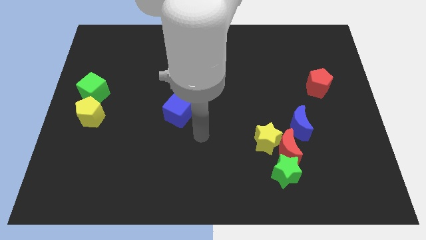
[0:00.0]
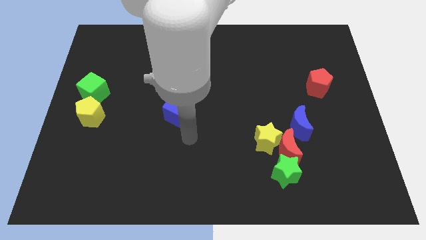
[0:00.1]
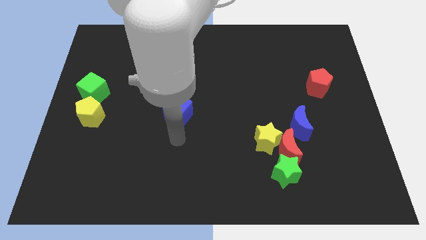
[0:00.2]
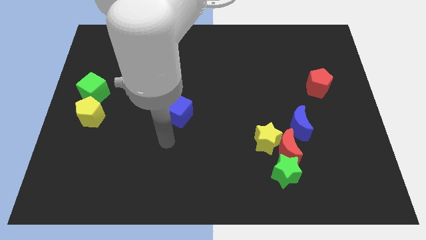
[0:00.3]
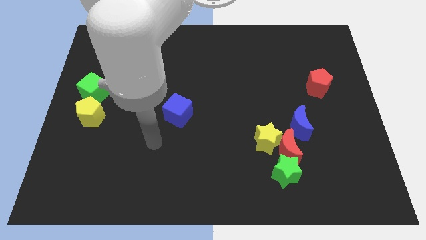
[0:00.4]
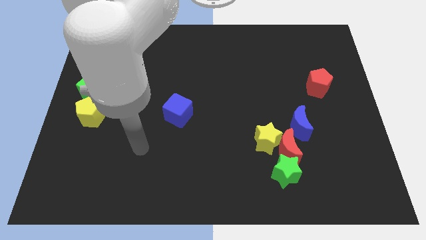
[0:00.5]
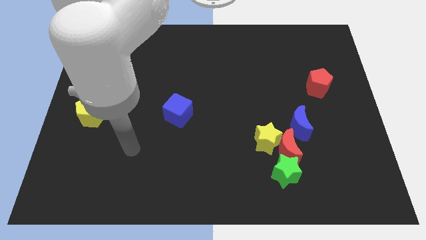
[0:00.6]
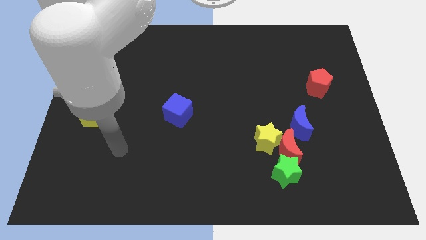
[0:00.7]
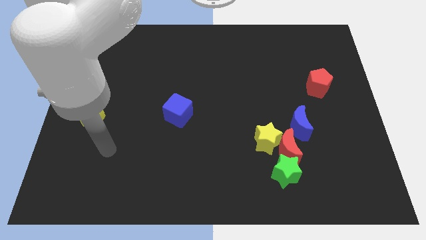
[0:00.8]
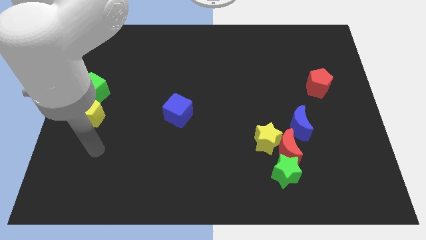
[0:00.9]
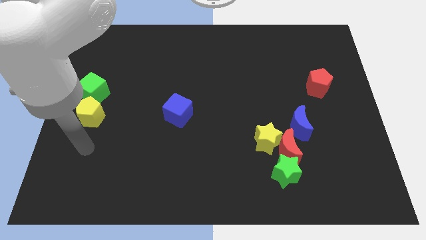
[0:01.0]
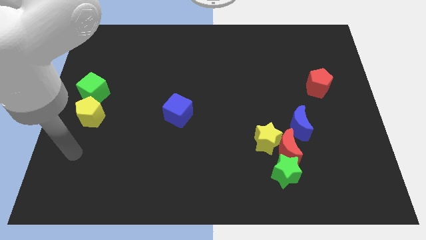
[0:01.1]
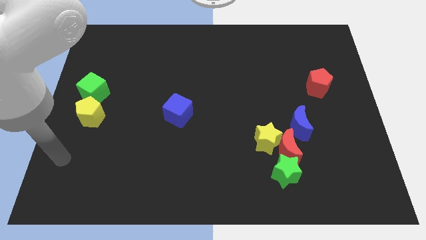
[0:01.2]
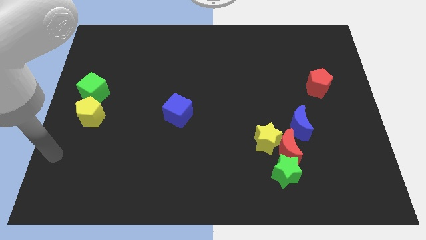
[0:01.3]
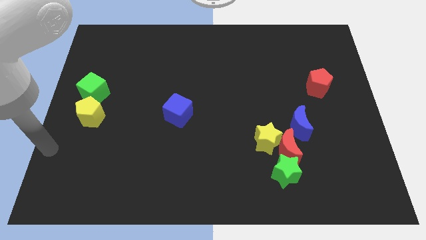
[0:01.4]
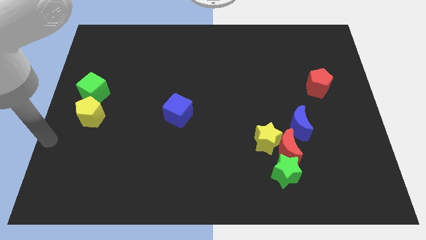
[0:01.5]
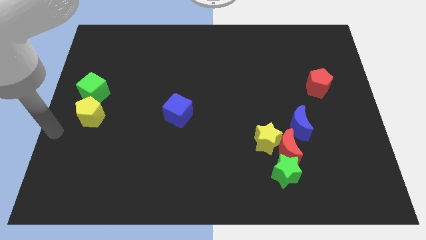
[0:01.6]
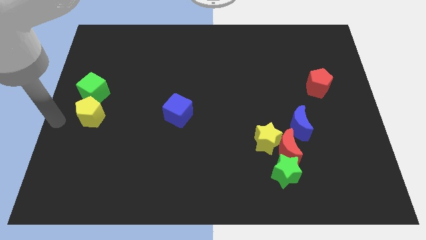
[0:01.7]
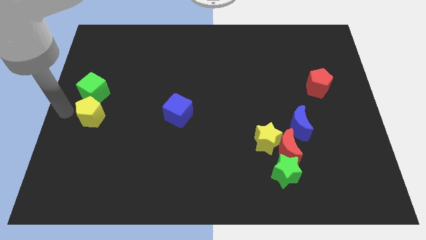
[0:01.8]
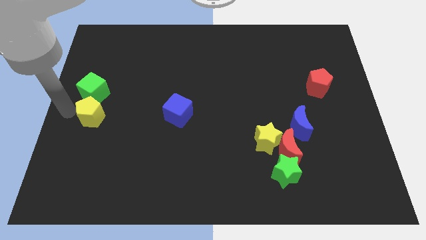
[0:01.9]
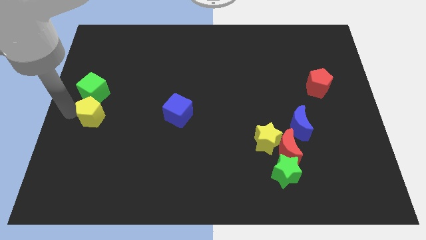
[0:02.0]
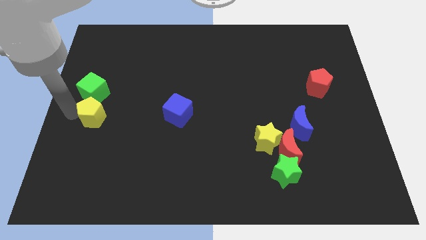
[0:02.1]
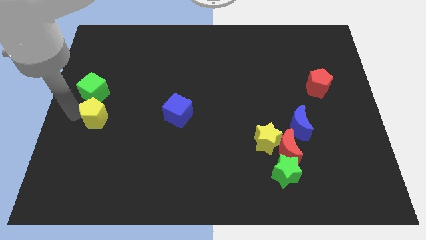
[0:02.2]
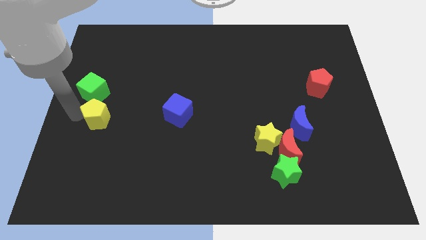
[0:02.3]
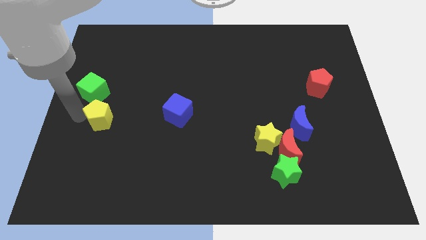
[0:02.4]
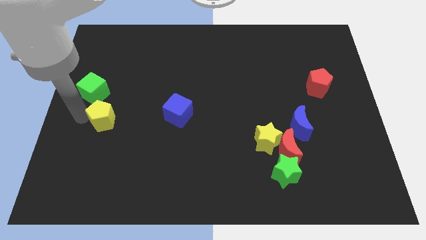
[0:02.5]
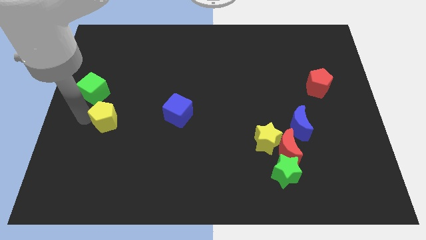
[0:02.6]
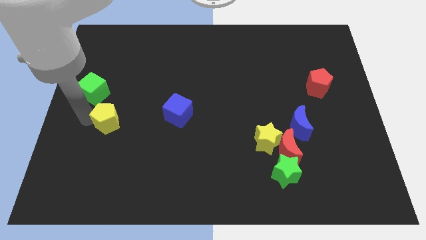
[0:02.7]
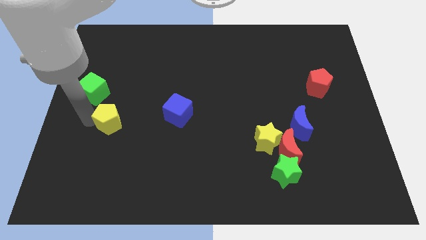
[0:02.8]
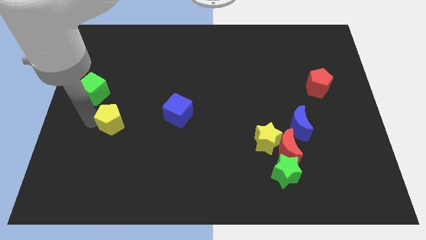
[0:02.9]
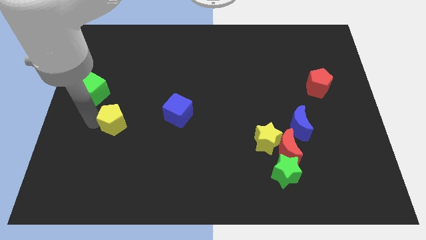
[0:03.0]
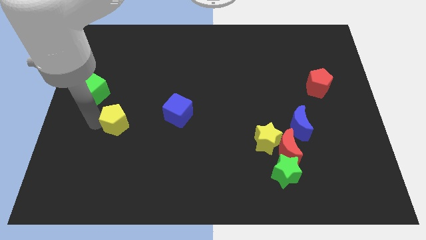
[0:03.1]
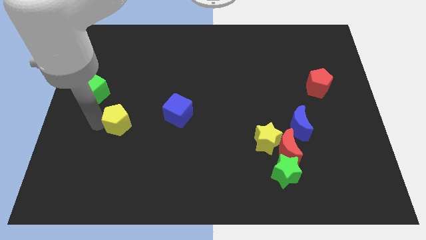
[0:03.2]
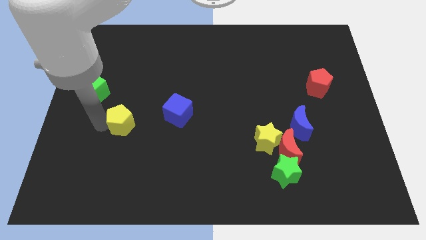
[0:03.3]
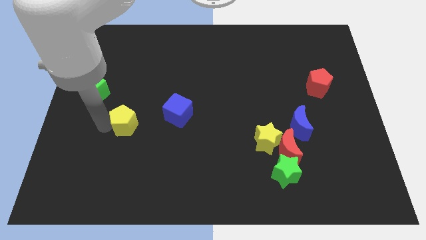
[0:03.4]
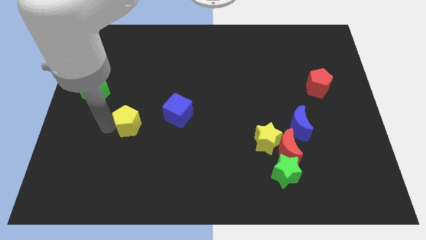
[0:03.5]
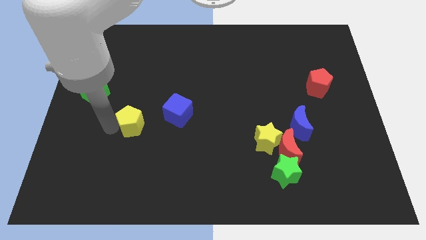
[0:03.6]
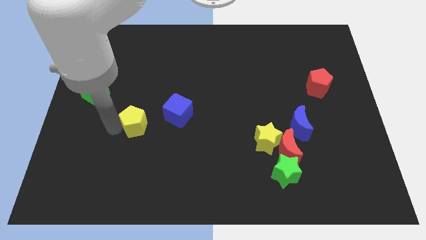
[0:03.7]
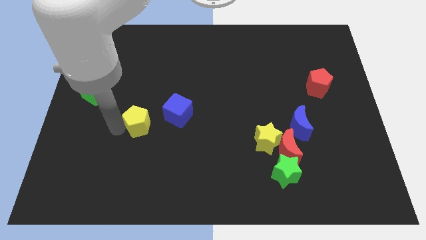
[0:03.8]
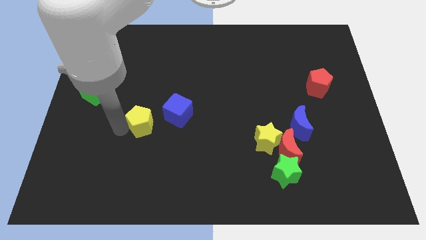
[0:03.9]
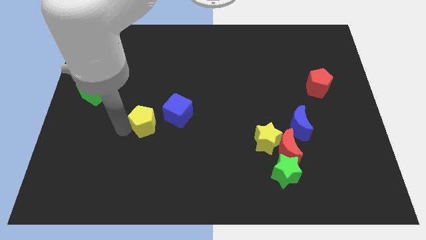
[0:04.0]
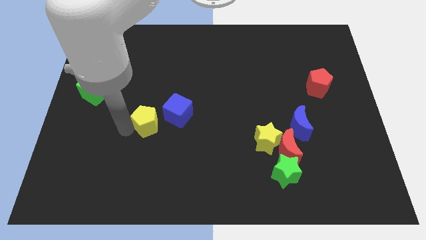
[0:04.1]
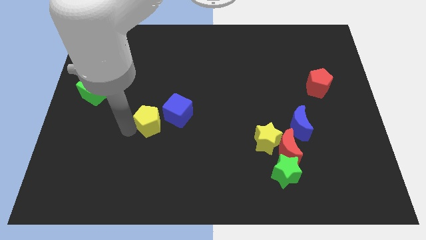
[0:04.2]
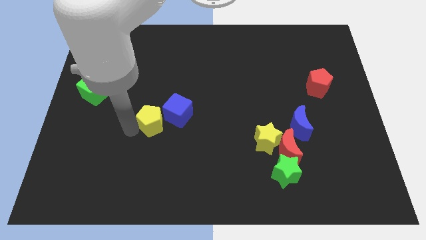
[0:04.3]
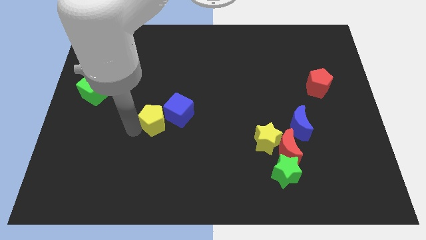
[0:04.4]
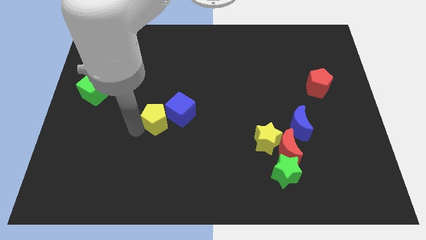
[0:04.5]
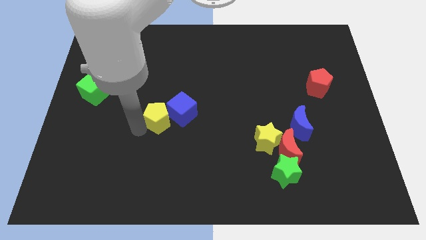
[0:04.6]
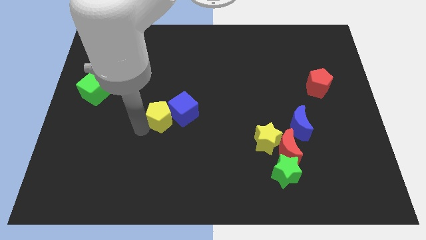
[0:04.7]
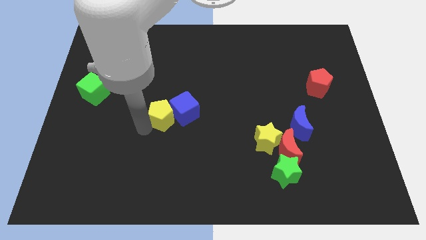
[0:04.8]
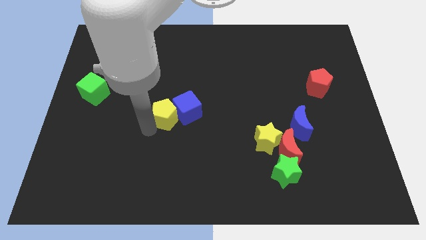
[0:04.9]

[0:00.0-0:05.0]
push the yellow pentagon to the middle of the board

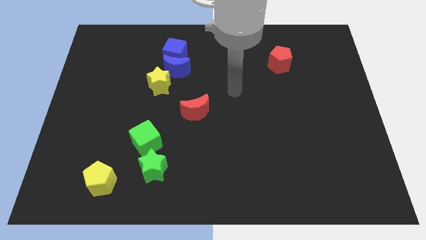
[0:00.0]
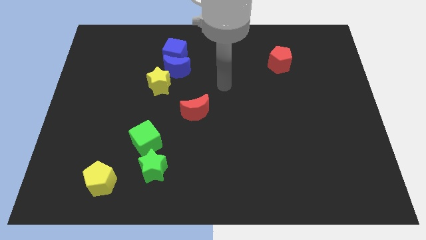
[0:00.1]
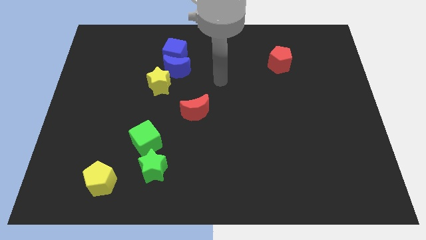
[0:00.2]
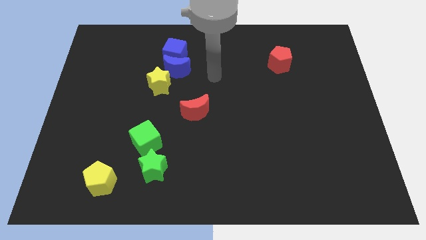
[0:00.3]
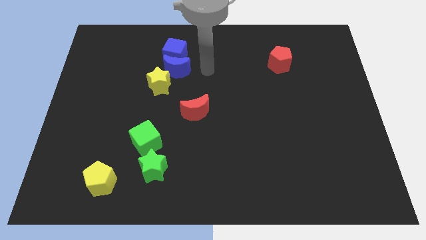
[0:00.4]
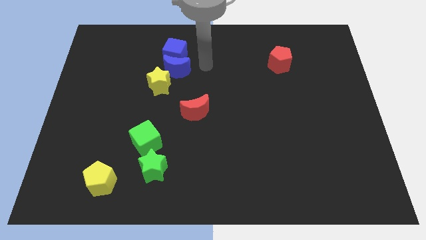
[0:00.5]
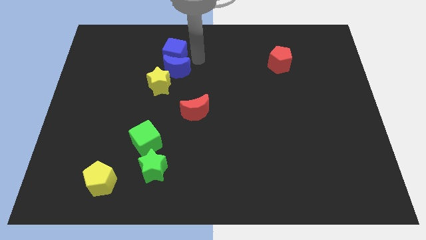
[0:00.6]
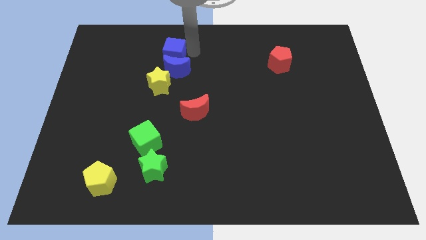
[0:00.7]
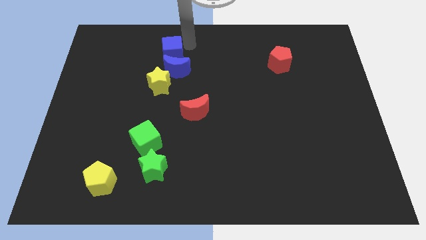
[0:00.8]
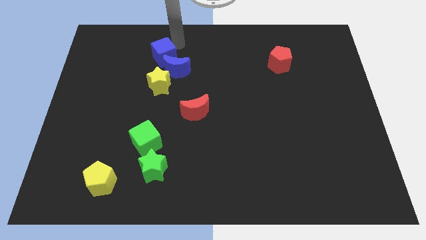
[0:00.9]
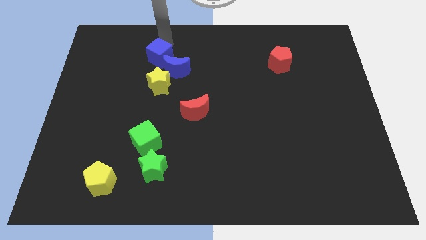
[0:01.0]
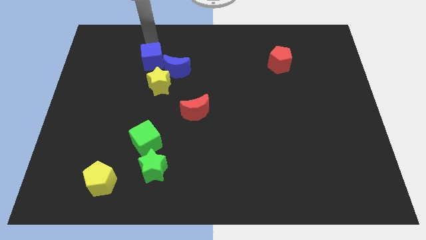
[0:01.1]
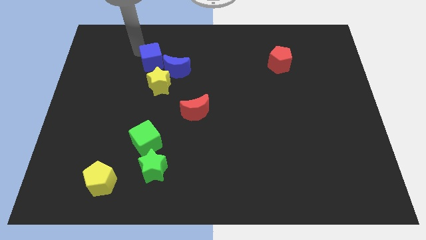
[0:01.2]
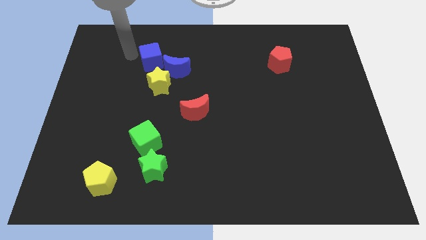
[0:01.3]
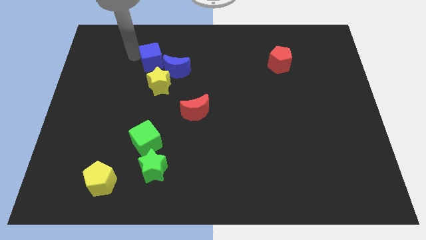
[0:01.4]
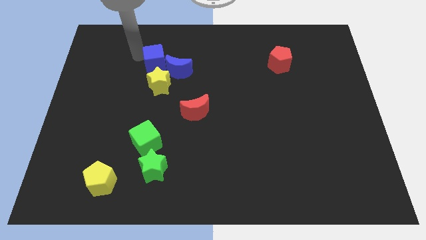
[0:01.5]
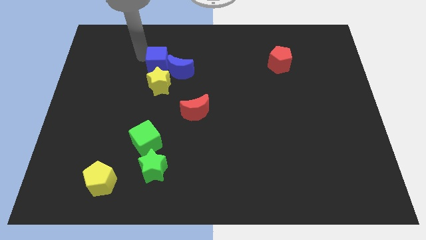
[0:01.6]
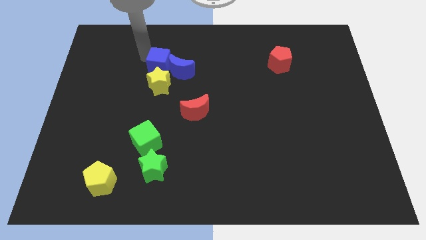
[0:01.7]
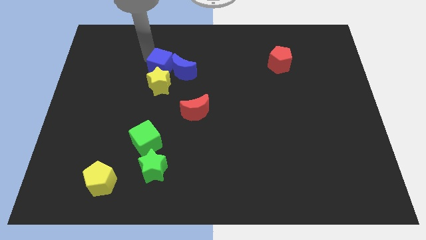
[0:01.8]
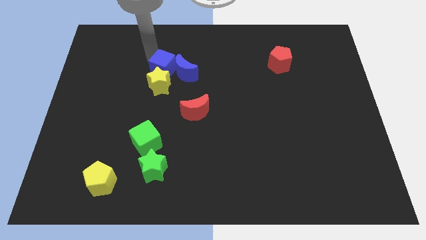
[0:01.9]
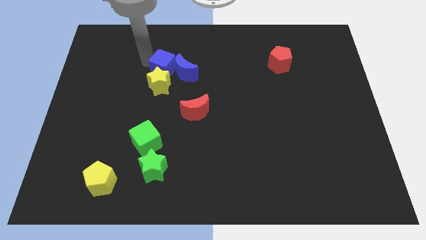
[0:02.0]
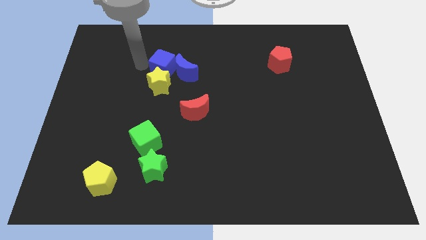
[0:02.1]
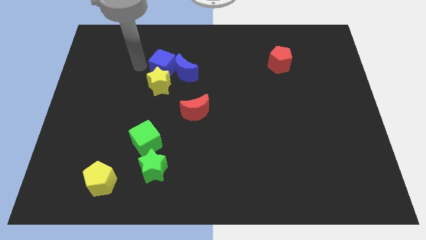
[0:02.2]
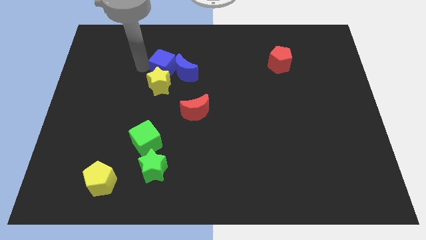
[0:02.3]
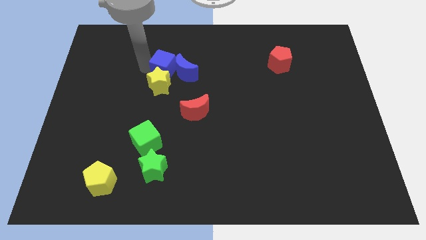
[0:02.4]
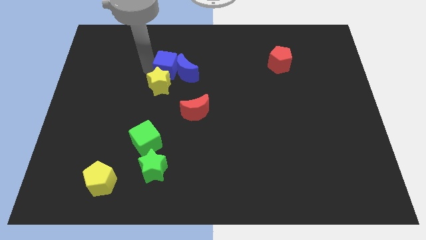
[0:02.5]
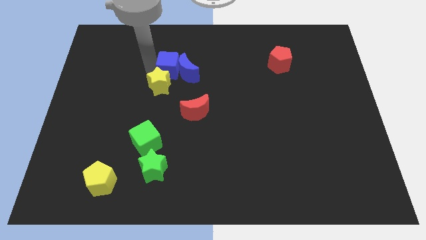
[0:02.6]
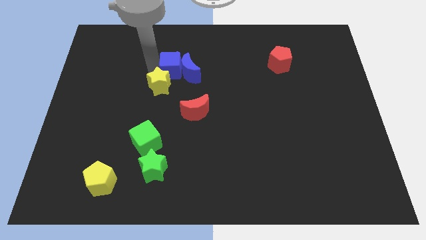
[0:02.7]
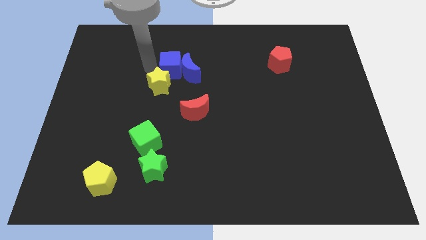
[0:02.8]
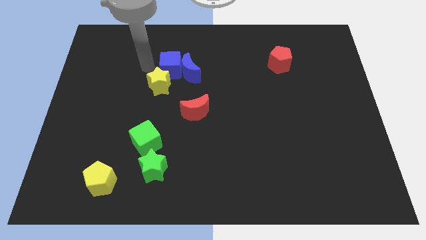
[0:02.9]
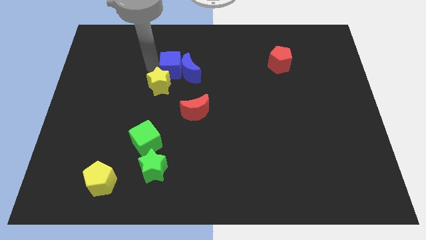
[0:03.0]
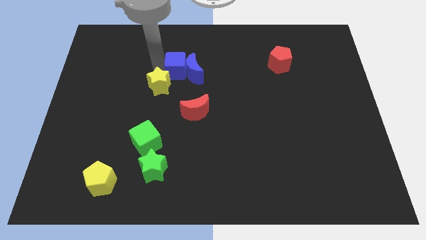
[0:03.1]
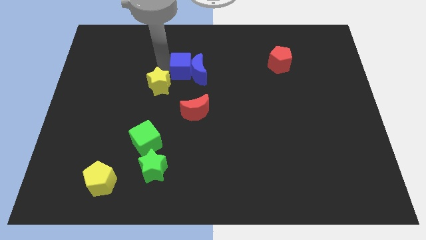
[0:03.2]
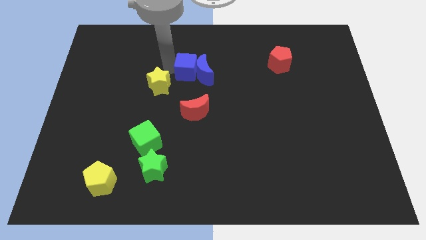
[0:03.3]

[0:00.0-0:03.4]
move the blue cube to the center of the board
